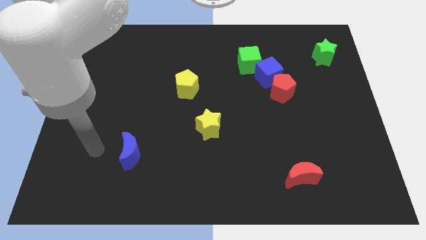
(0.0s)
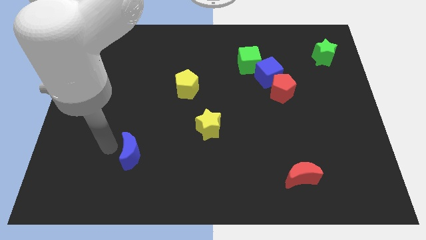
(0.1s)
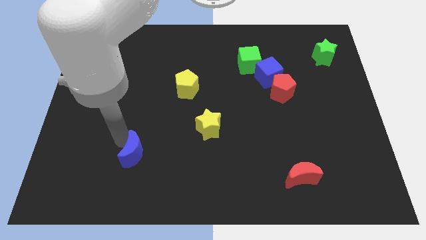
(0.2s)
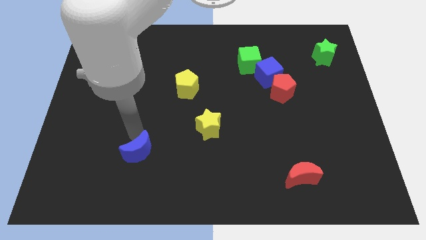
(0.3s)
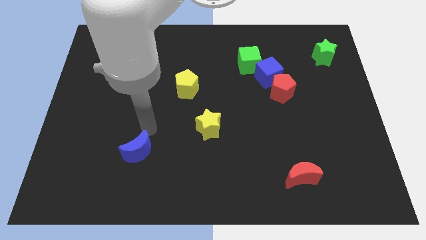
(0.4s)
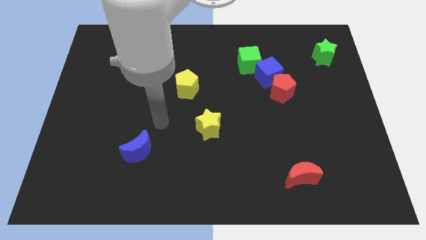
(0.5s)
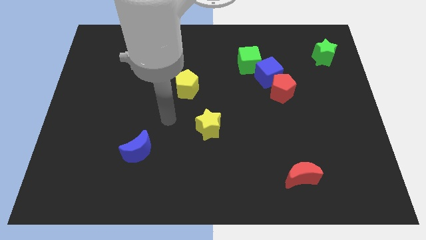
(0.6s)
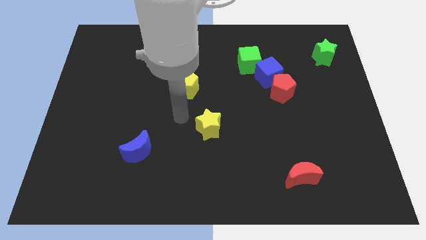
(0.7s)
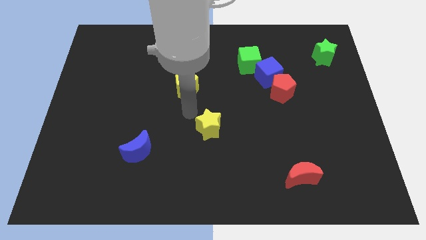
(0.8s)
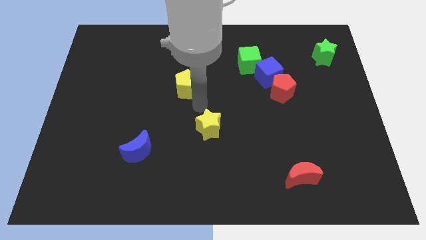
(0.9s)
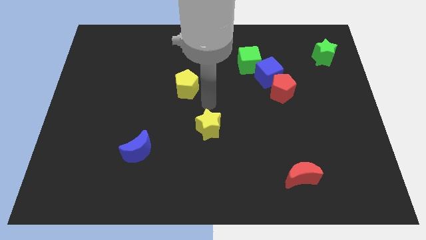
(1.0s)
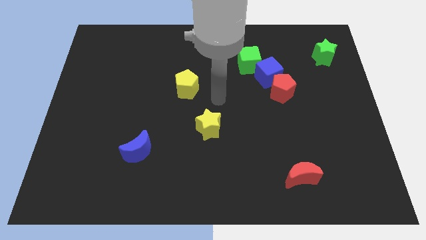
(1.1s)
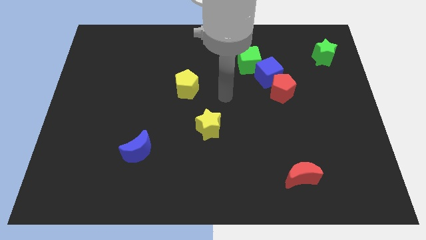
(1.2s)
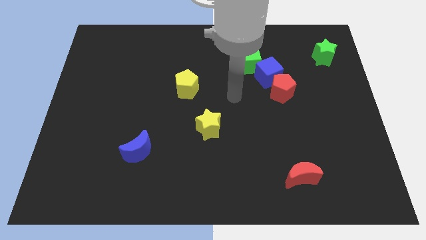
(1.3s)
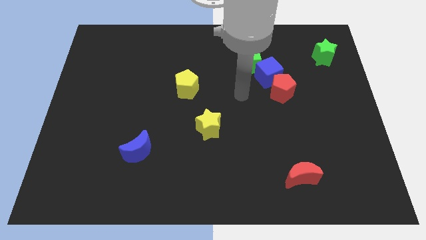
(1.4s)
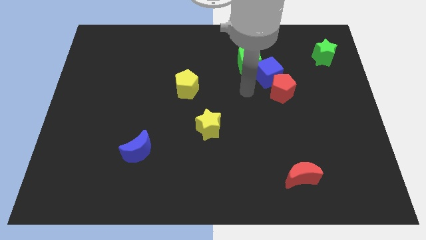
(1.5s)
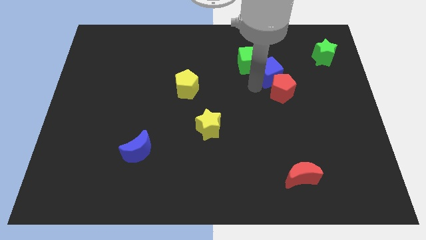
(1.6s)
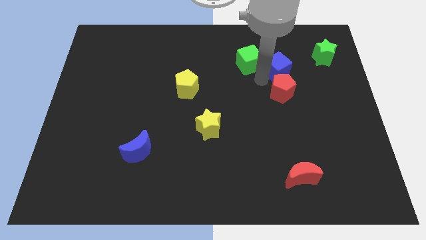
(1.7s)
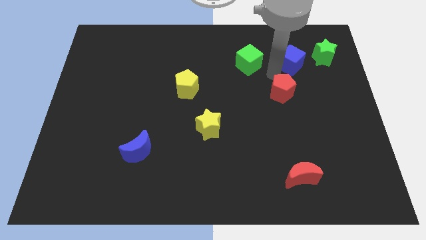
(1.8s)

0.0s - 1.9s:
move the red pentagon away from the blue cube

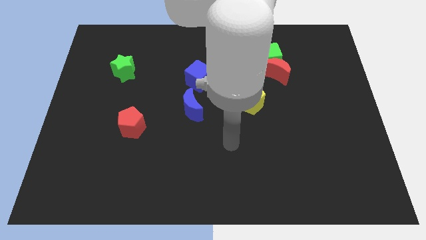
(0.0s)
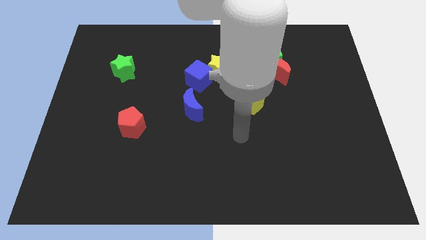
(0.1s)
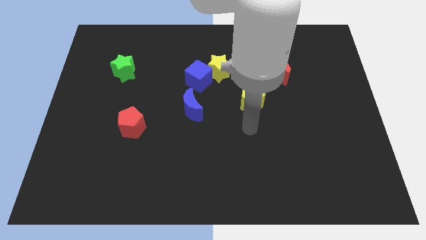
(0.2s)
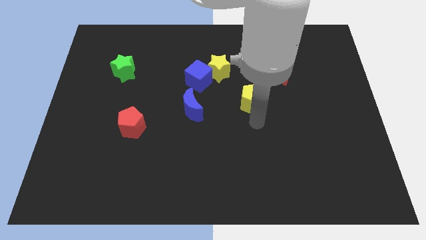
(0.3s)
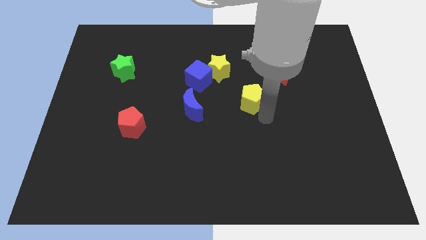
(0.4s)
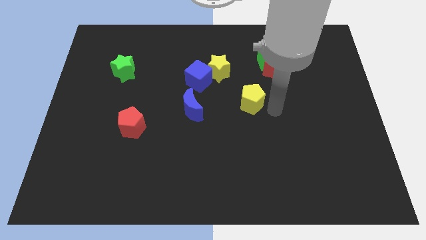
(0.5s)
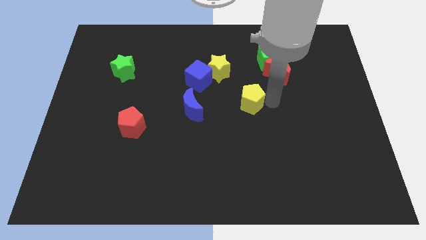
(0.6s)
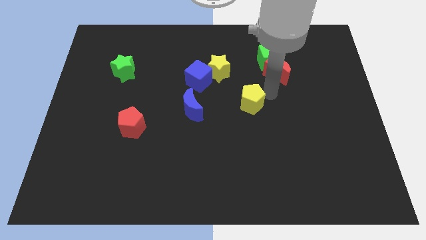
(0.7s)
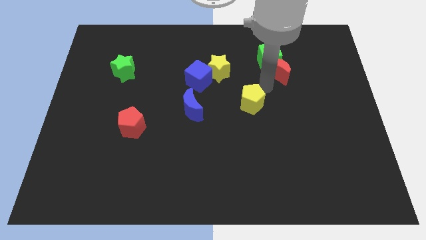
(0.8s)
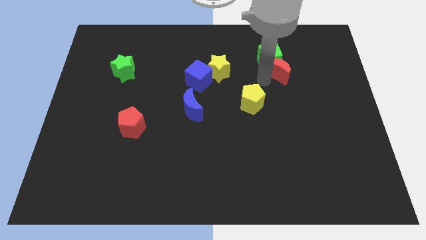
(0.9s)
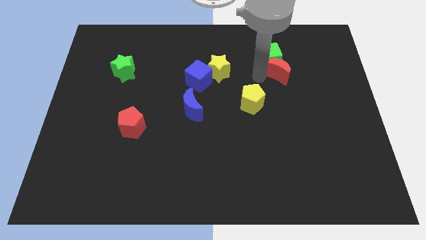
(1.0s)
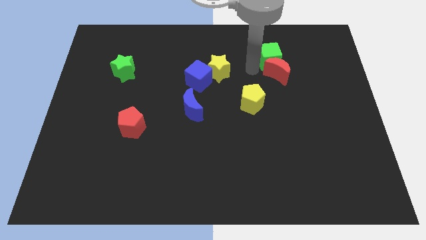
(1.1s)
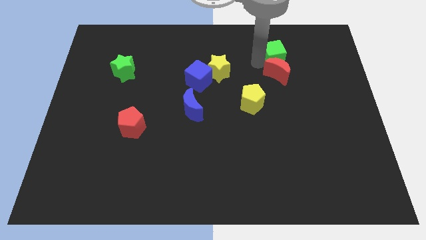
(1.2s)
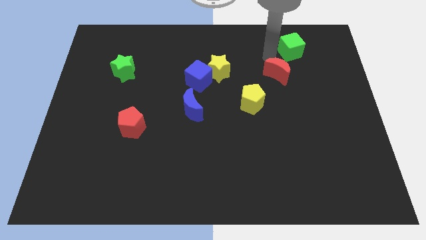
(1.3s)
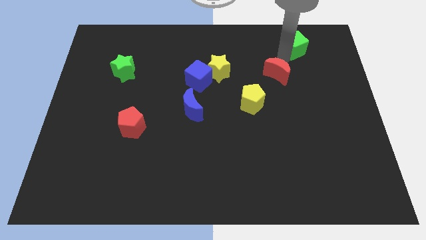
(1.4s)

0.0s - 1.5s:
pull the red moon apart from the green cube

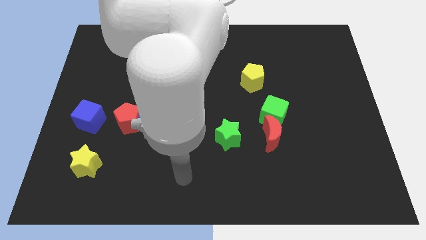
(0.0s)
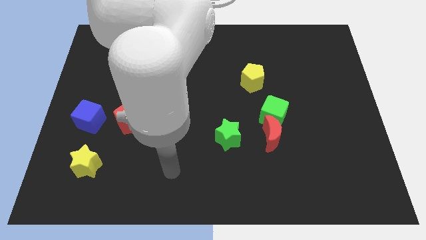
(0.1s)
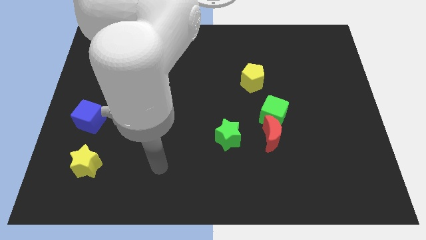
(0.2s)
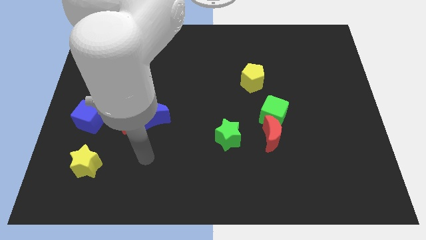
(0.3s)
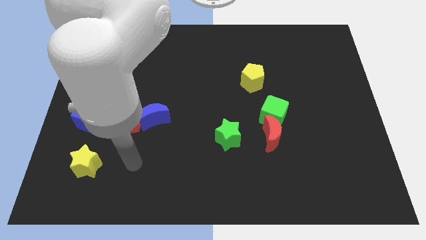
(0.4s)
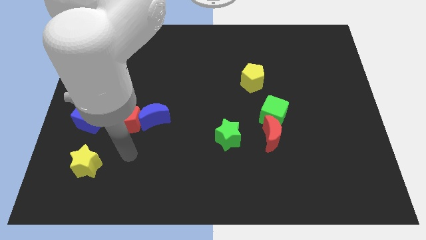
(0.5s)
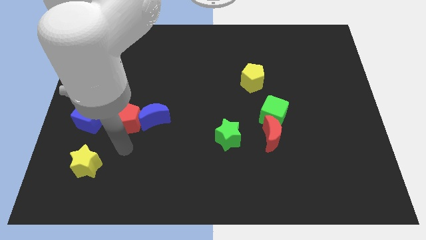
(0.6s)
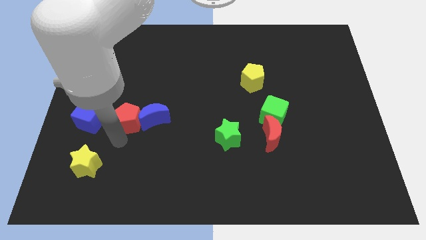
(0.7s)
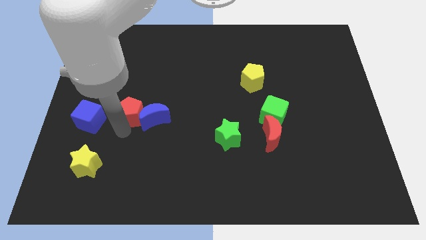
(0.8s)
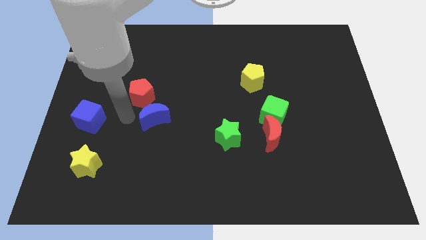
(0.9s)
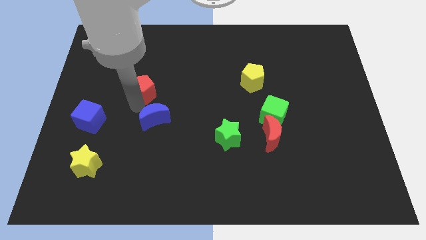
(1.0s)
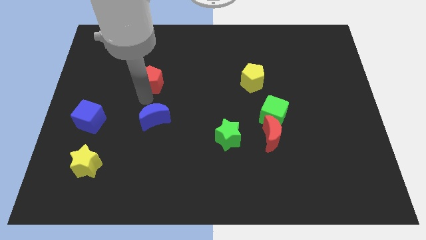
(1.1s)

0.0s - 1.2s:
separate the blue moon from the red pentagon

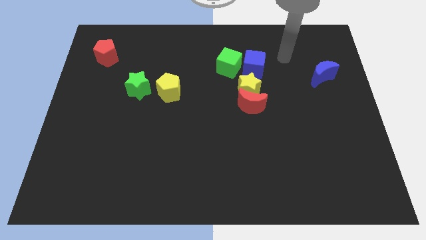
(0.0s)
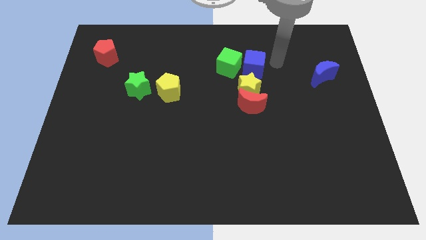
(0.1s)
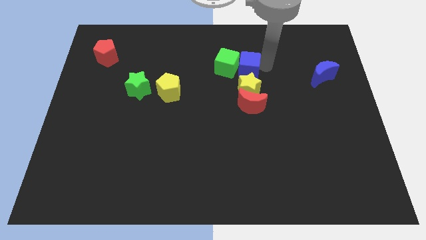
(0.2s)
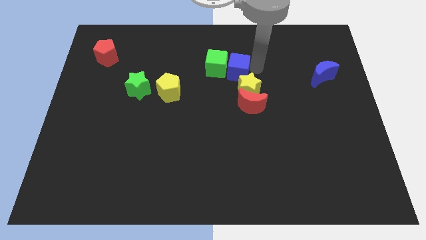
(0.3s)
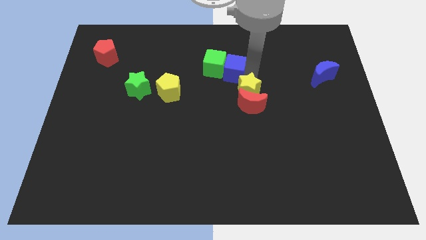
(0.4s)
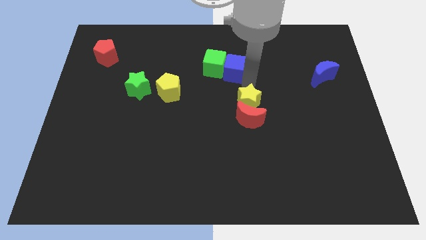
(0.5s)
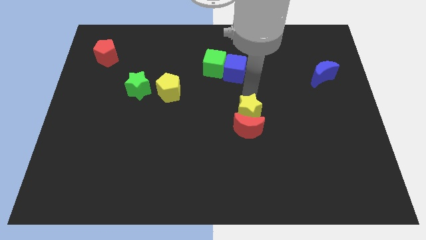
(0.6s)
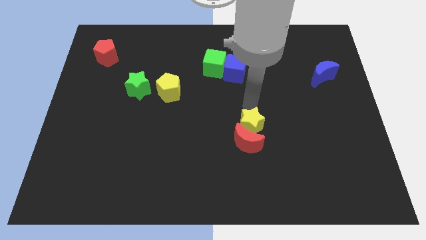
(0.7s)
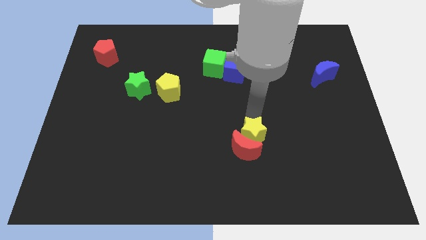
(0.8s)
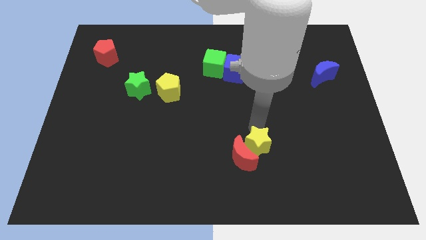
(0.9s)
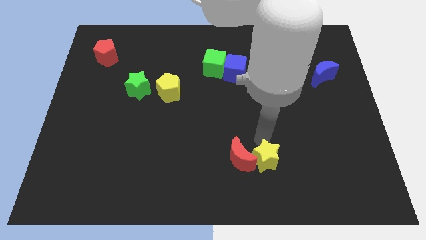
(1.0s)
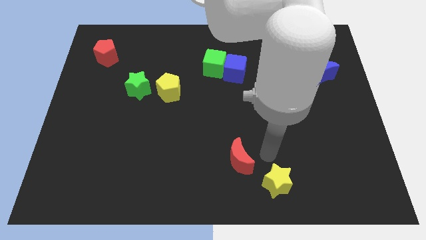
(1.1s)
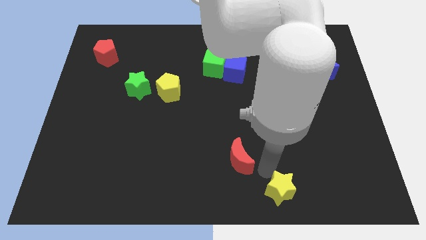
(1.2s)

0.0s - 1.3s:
pull the red moon apart from the yellow star

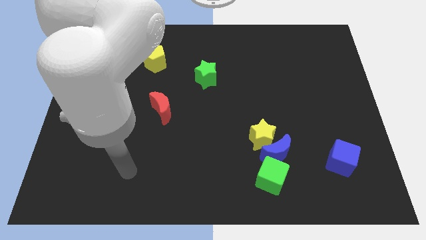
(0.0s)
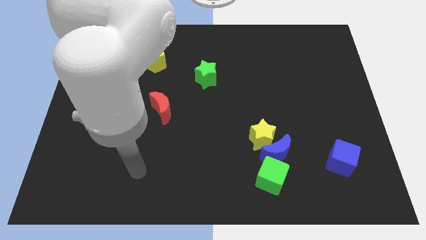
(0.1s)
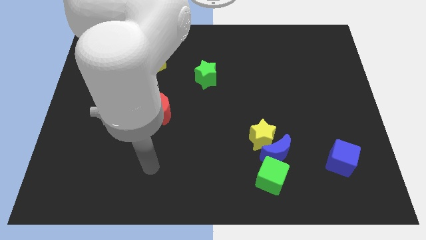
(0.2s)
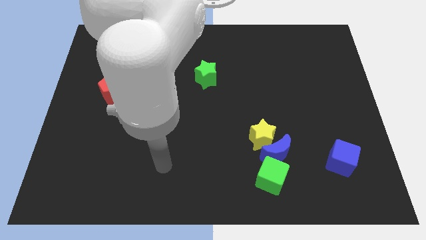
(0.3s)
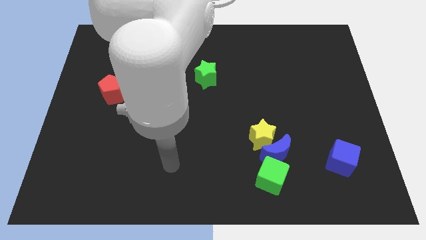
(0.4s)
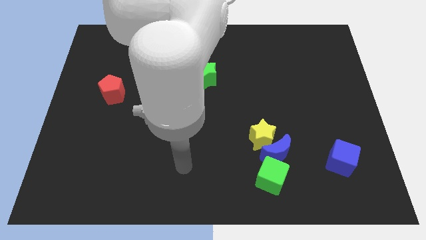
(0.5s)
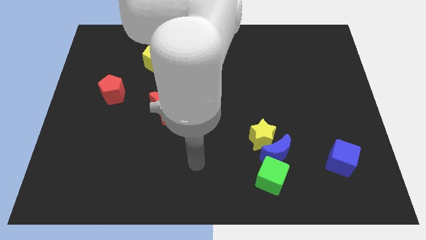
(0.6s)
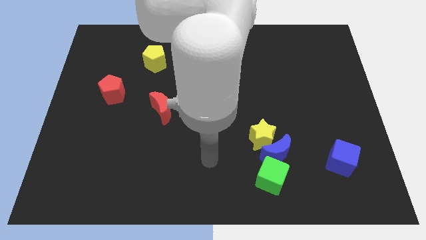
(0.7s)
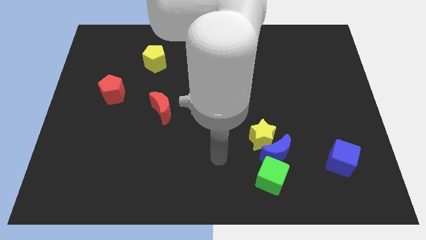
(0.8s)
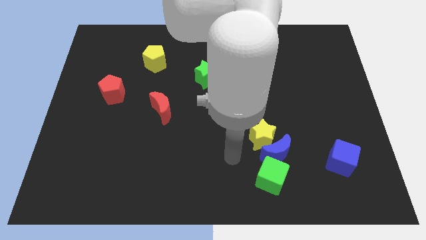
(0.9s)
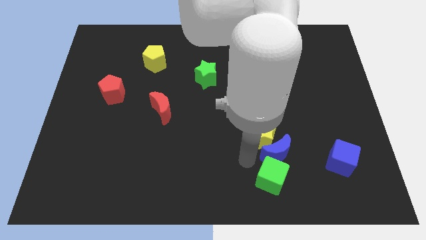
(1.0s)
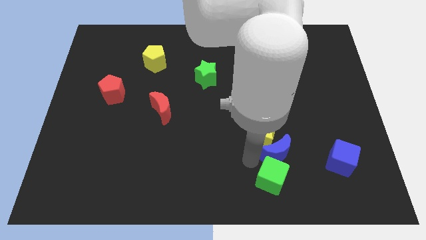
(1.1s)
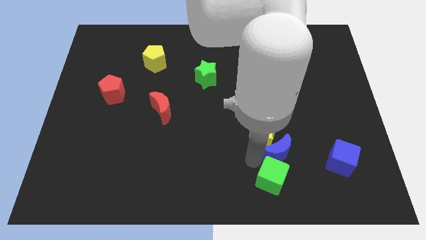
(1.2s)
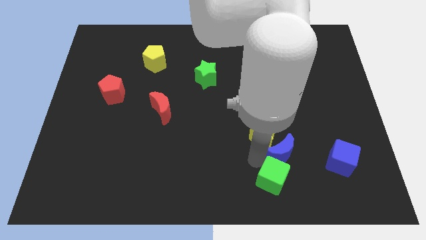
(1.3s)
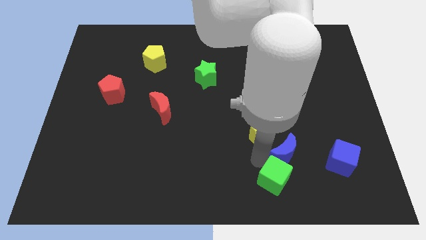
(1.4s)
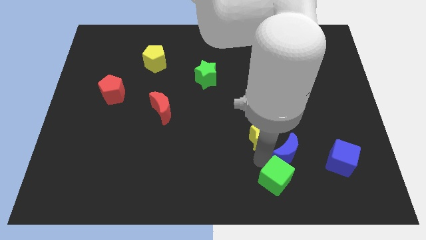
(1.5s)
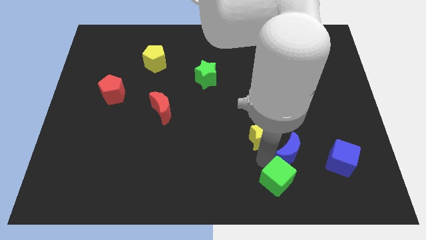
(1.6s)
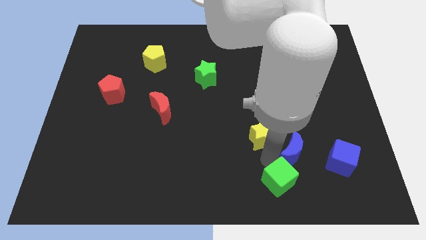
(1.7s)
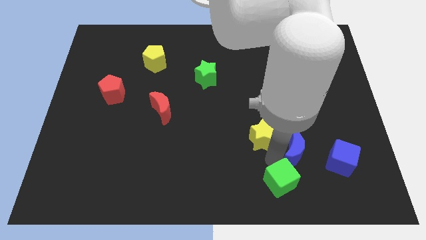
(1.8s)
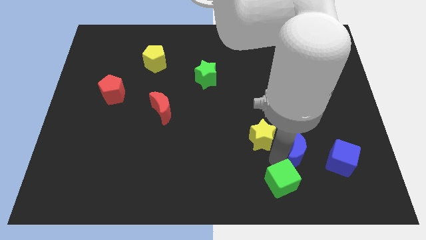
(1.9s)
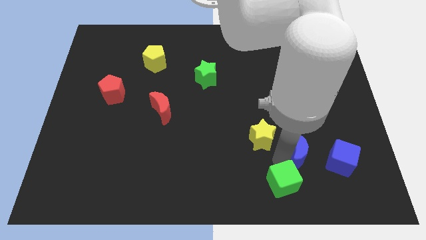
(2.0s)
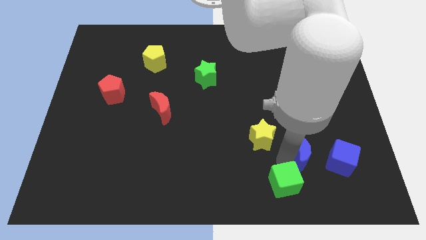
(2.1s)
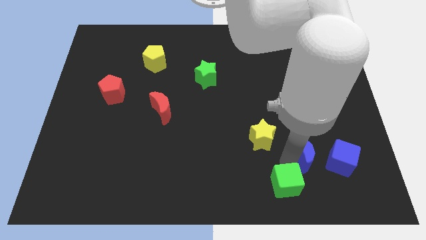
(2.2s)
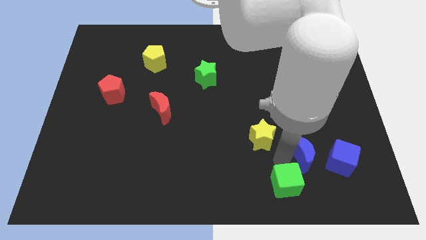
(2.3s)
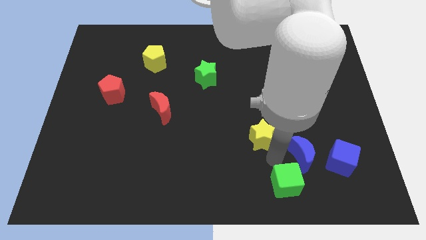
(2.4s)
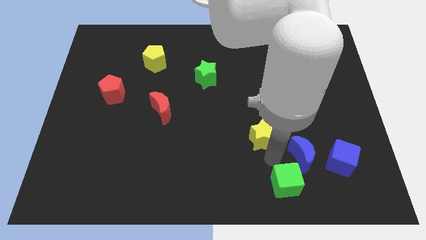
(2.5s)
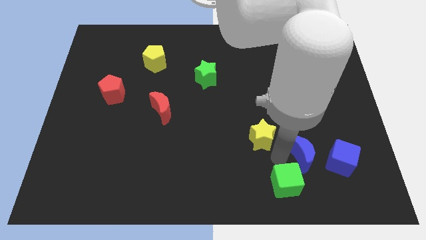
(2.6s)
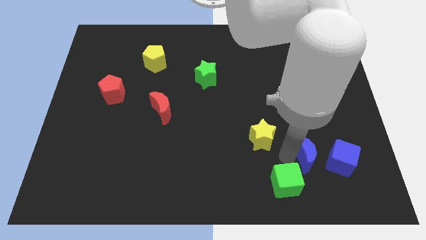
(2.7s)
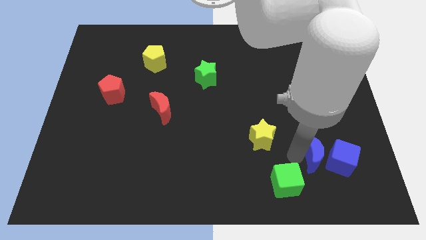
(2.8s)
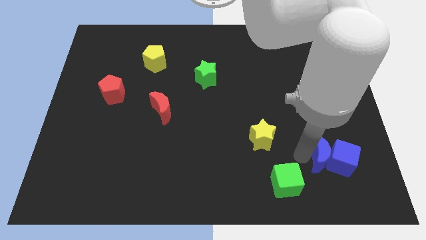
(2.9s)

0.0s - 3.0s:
move the blue moon away from the yellow star and green cube

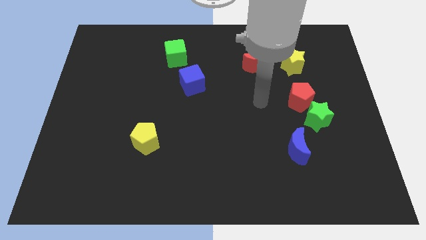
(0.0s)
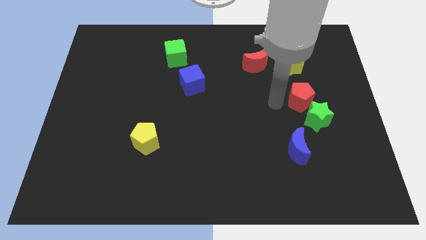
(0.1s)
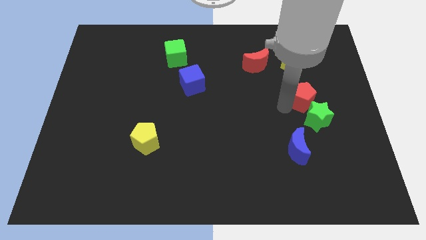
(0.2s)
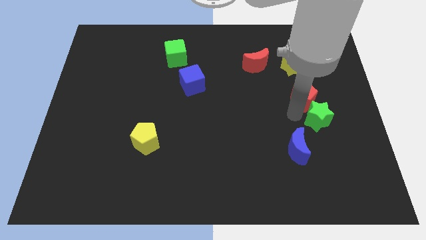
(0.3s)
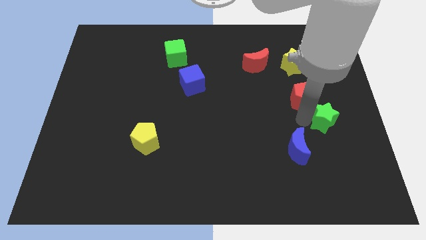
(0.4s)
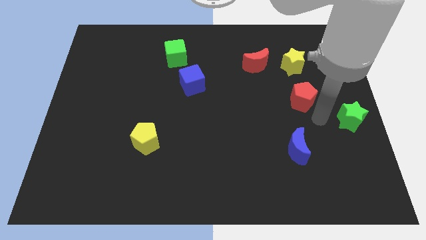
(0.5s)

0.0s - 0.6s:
pull the red pentagon apart from the green star
